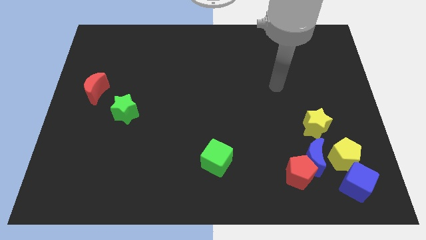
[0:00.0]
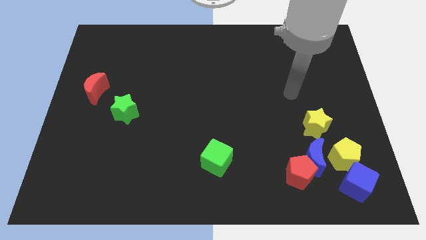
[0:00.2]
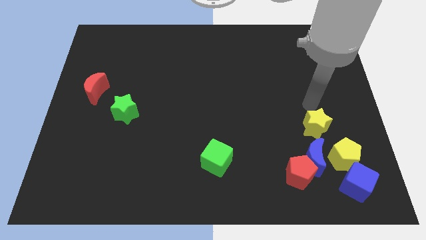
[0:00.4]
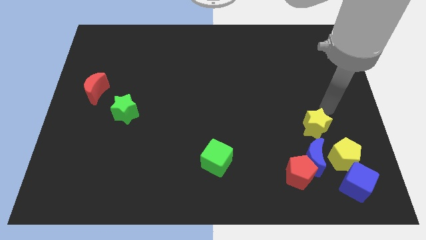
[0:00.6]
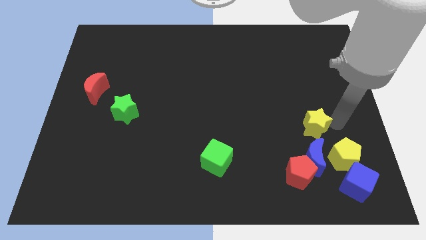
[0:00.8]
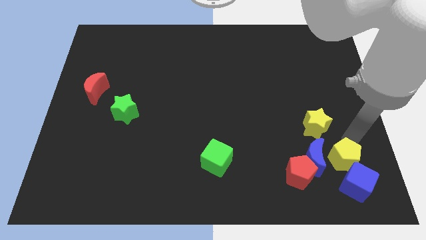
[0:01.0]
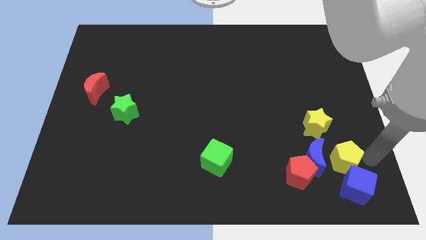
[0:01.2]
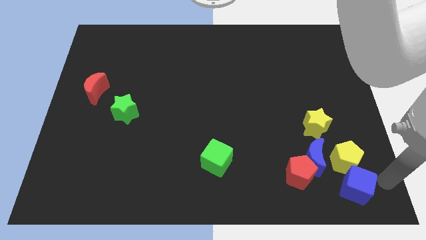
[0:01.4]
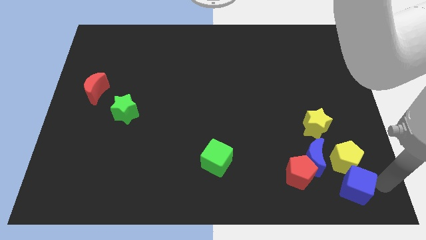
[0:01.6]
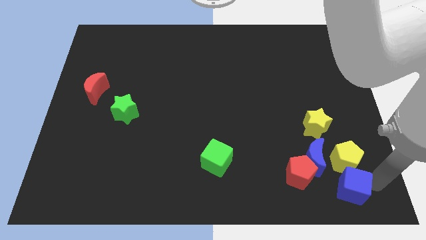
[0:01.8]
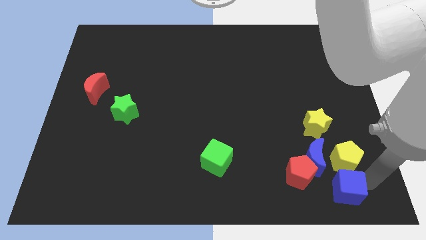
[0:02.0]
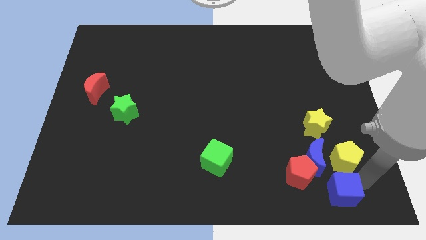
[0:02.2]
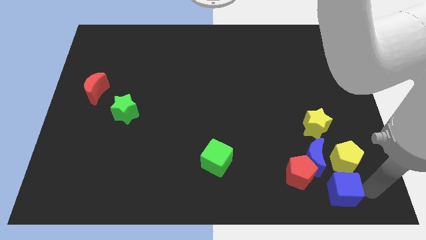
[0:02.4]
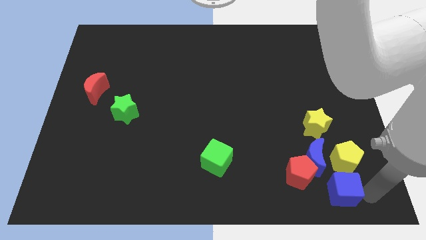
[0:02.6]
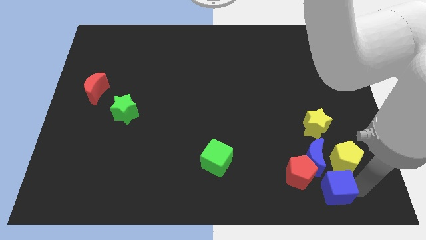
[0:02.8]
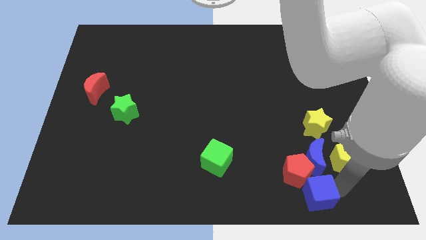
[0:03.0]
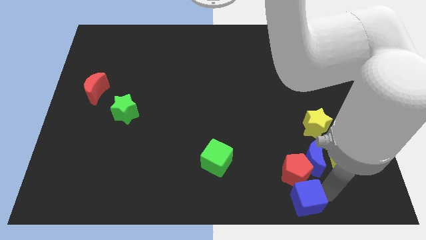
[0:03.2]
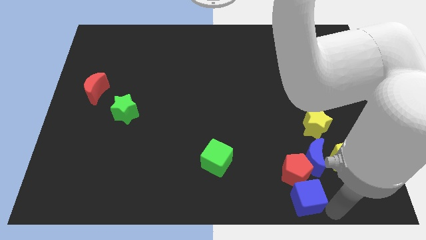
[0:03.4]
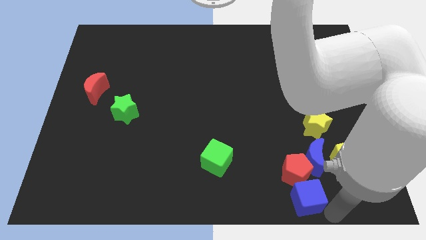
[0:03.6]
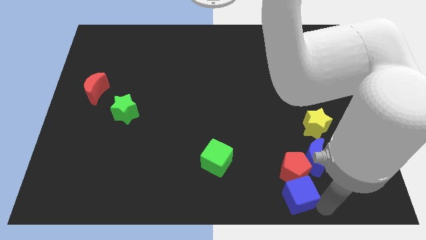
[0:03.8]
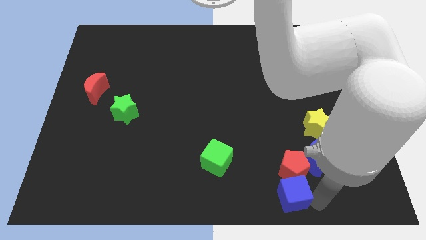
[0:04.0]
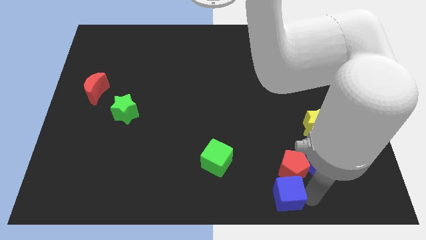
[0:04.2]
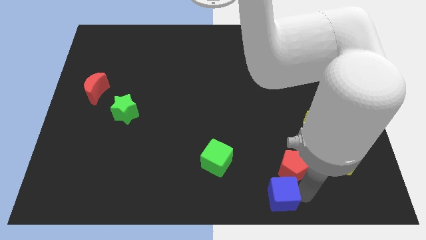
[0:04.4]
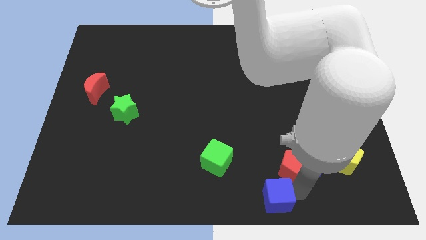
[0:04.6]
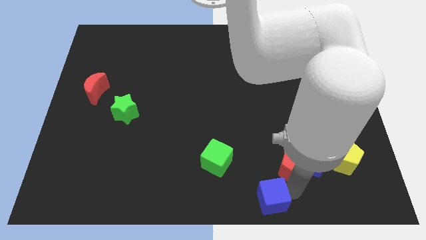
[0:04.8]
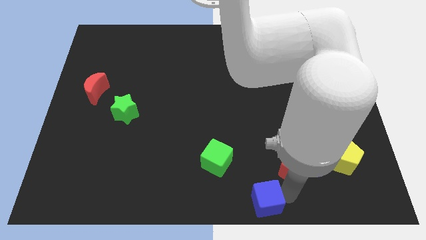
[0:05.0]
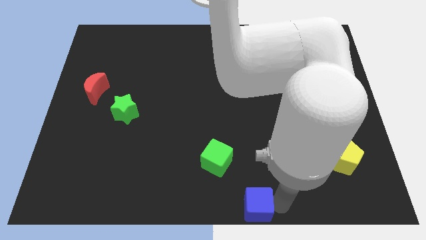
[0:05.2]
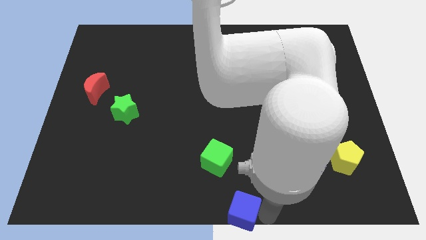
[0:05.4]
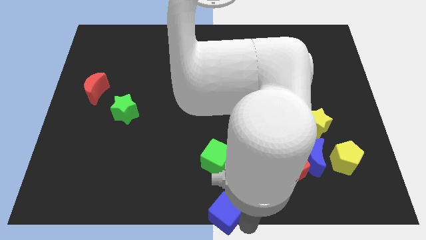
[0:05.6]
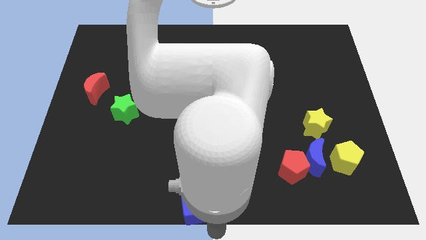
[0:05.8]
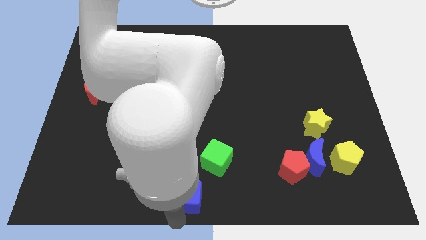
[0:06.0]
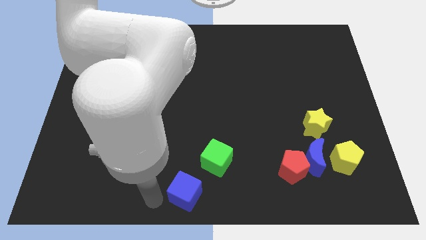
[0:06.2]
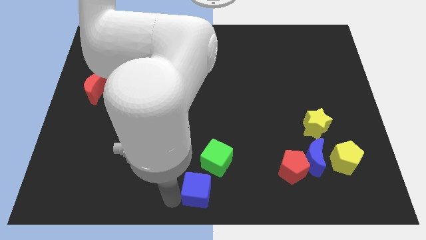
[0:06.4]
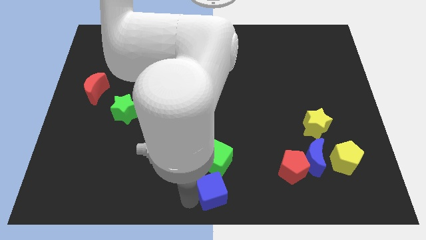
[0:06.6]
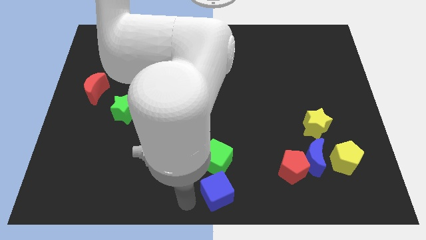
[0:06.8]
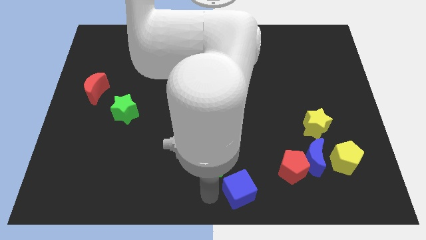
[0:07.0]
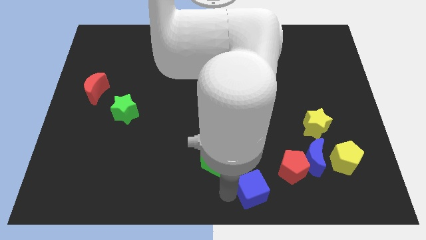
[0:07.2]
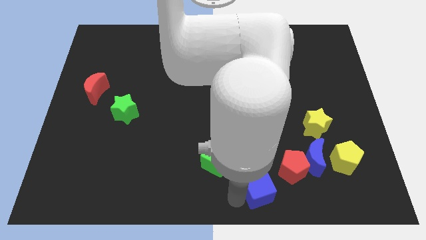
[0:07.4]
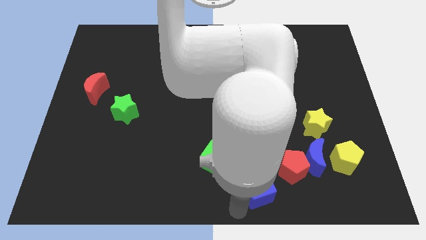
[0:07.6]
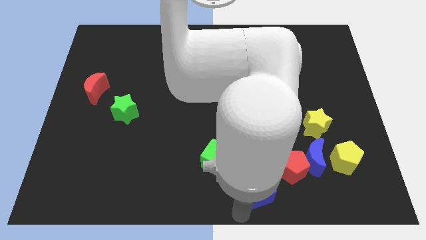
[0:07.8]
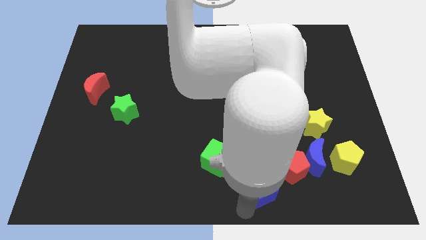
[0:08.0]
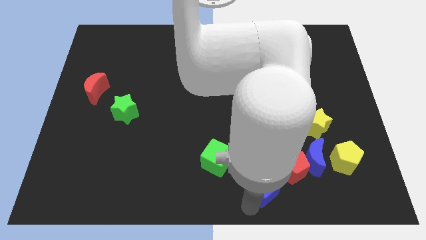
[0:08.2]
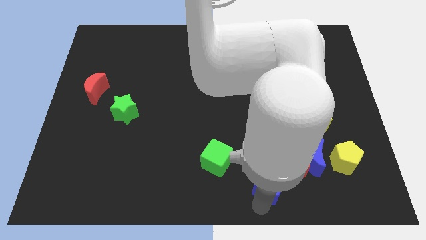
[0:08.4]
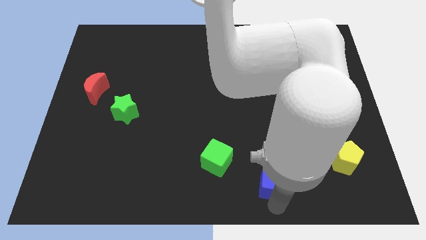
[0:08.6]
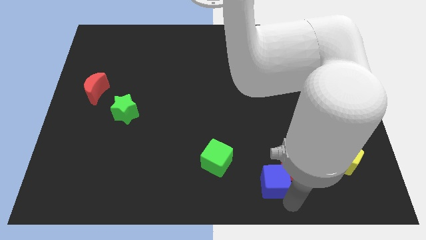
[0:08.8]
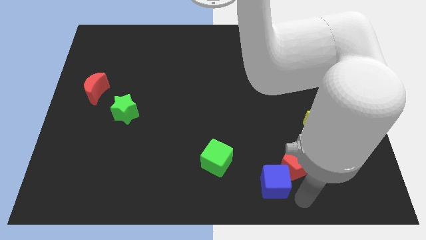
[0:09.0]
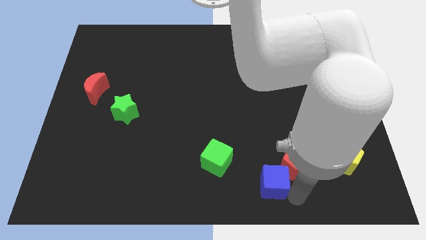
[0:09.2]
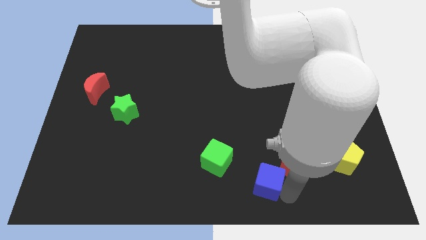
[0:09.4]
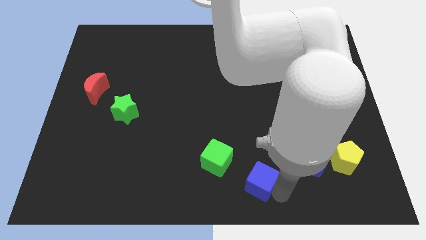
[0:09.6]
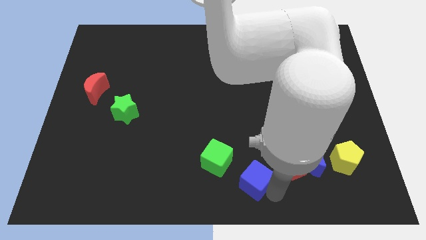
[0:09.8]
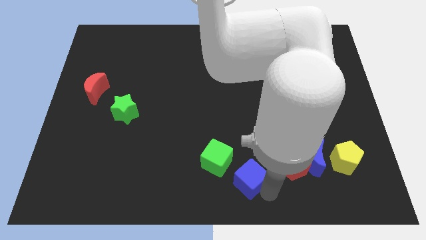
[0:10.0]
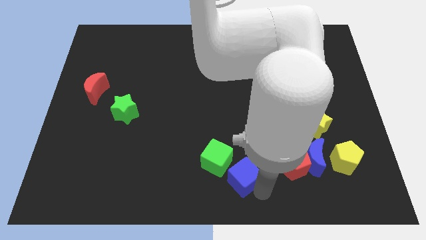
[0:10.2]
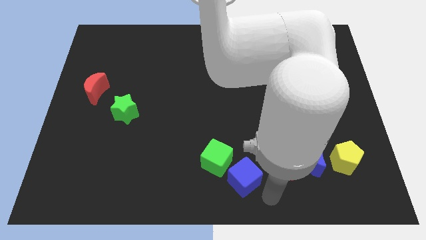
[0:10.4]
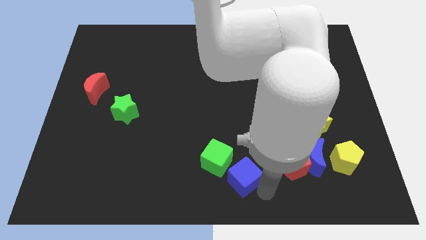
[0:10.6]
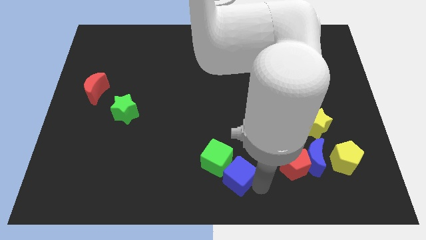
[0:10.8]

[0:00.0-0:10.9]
move the blue cube close to the green cube

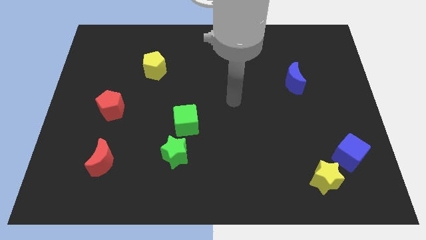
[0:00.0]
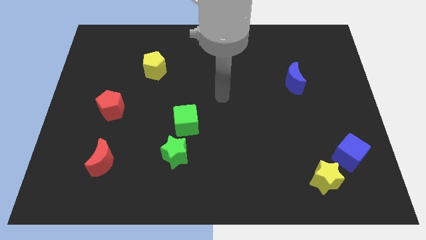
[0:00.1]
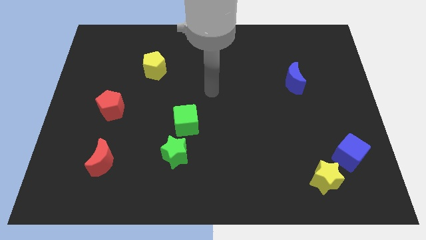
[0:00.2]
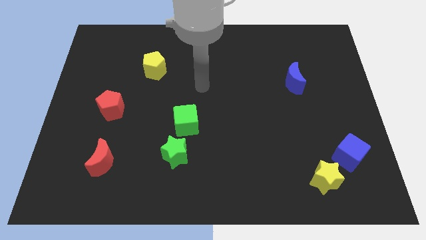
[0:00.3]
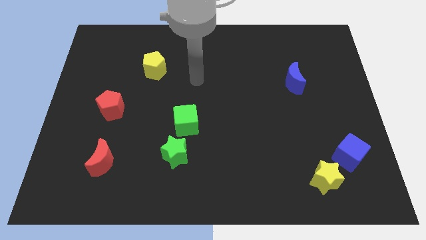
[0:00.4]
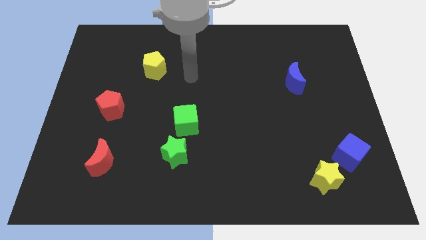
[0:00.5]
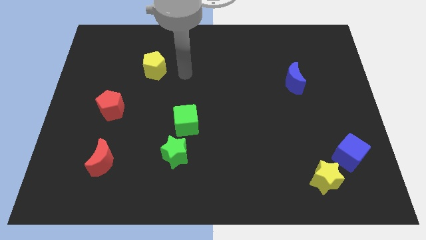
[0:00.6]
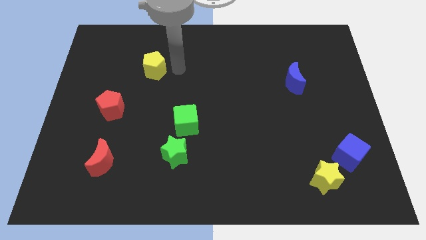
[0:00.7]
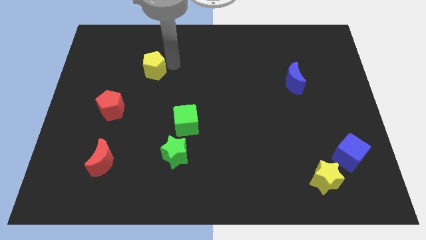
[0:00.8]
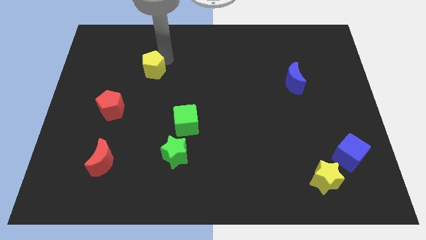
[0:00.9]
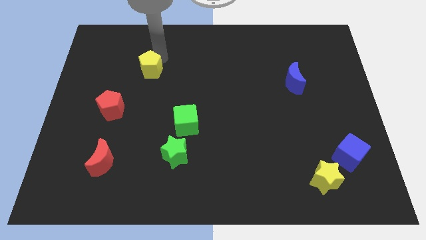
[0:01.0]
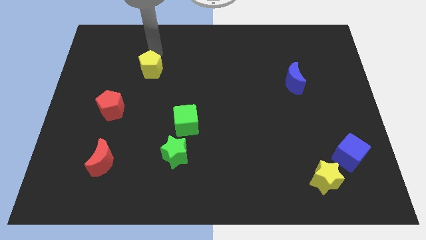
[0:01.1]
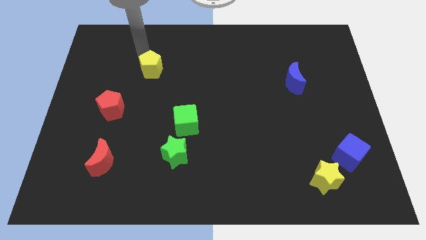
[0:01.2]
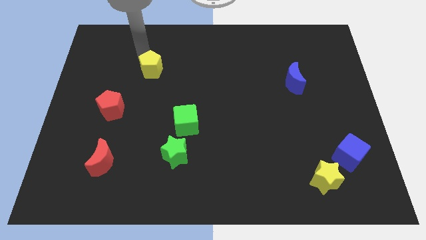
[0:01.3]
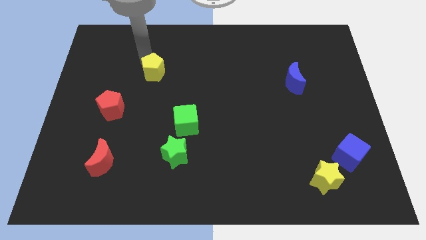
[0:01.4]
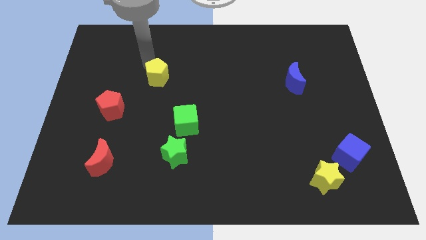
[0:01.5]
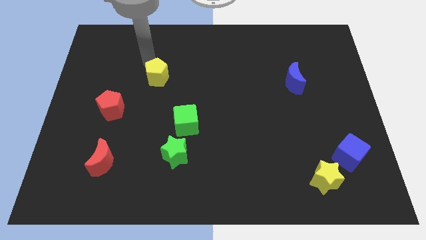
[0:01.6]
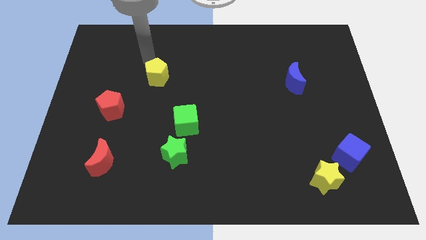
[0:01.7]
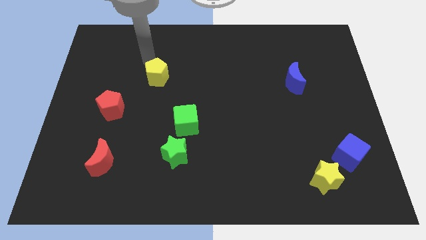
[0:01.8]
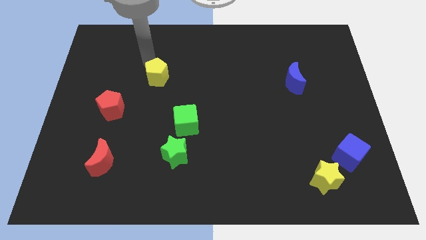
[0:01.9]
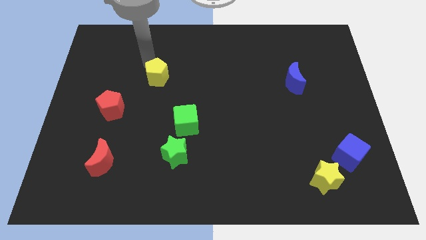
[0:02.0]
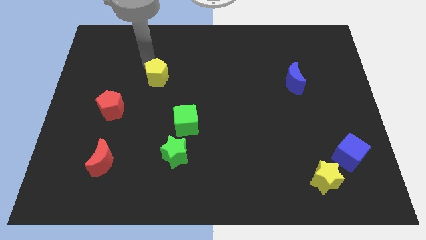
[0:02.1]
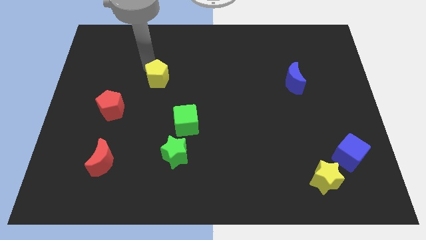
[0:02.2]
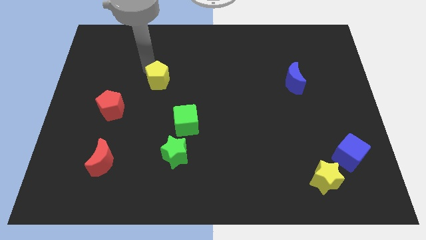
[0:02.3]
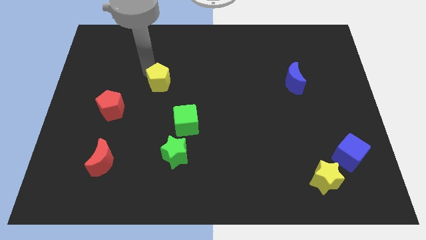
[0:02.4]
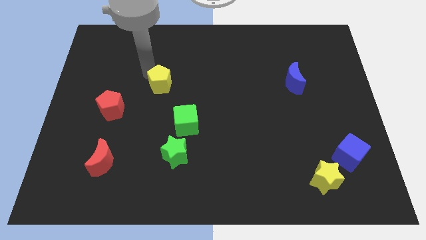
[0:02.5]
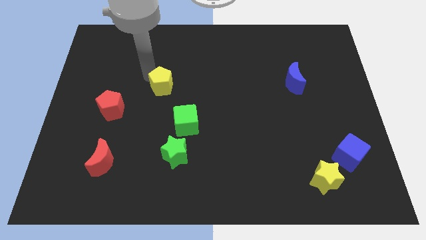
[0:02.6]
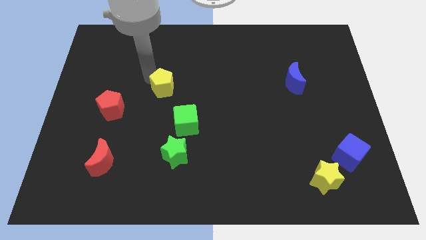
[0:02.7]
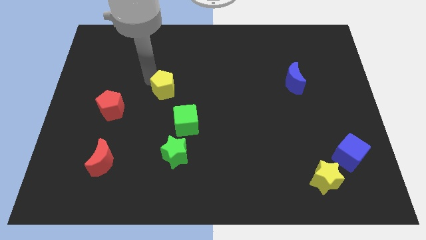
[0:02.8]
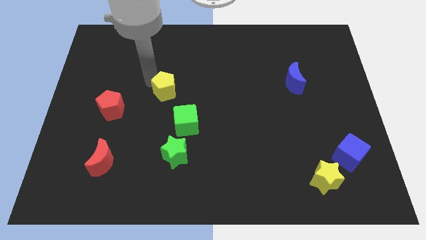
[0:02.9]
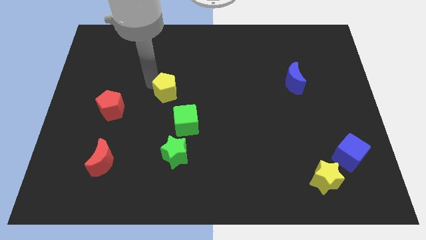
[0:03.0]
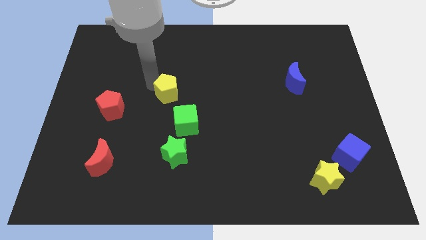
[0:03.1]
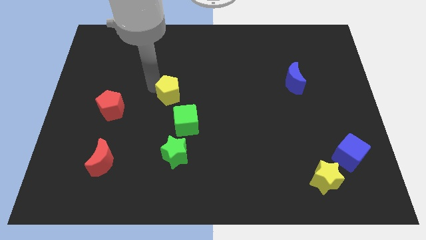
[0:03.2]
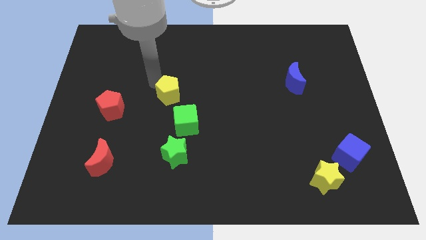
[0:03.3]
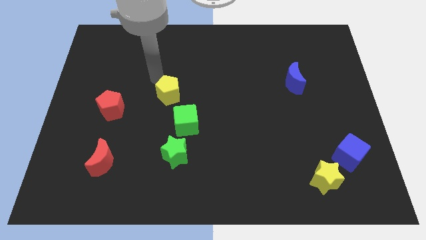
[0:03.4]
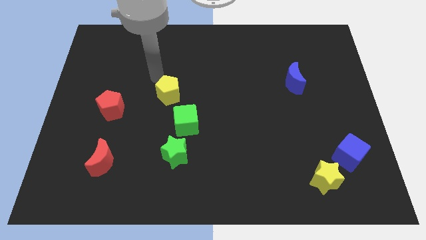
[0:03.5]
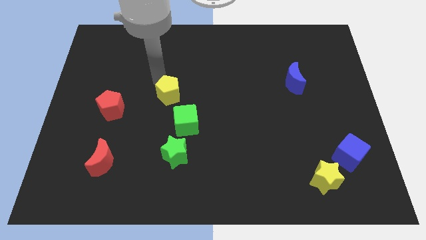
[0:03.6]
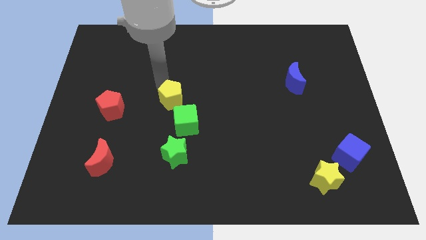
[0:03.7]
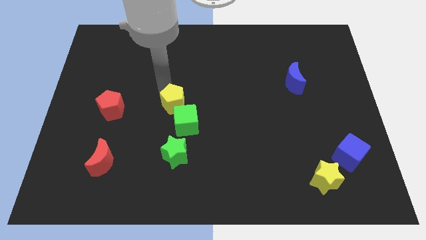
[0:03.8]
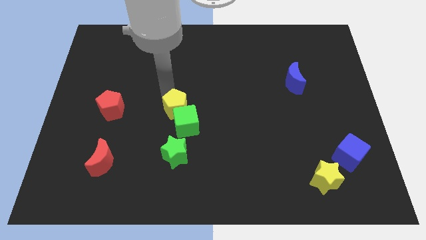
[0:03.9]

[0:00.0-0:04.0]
put the yellow pentagon to the green cube
